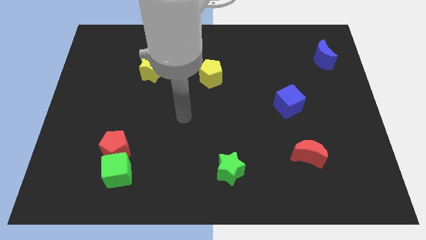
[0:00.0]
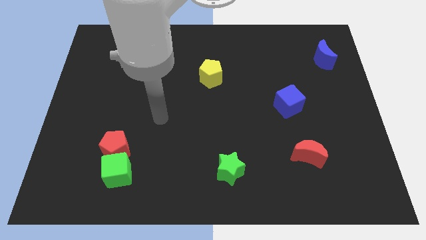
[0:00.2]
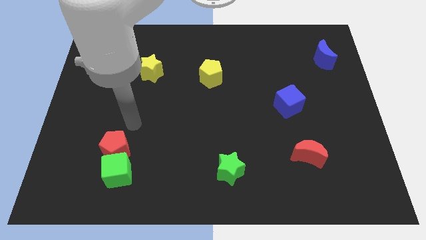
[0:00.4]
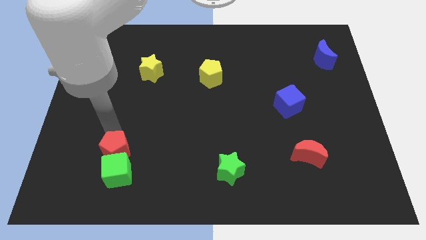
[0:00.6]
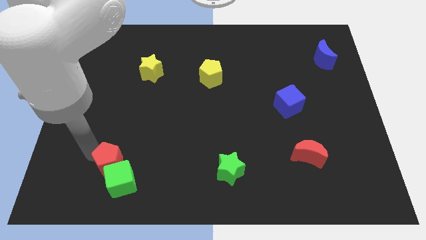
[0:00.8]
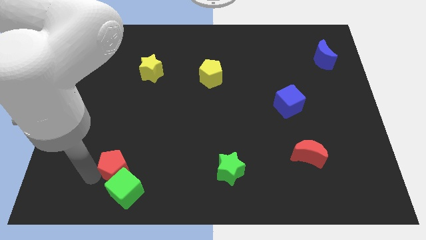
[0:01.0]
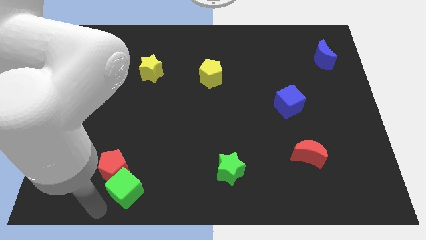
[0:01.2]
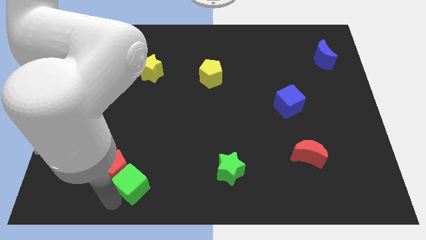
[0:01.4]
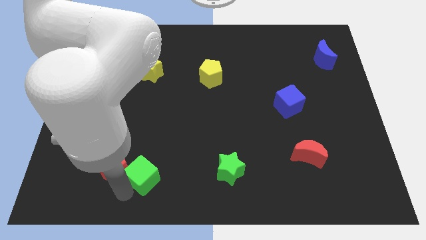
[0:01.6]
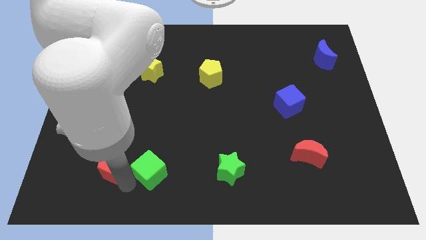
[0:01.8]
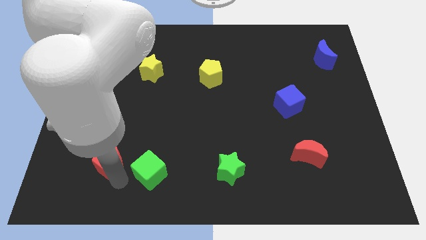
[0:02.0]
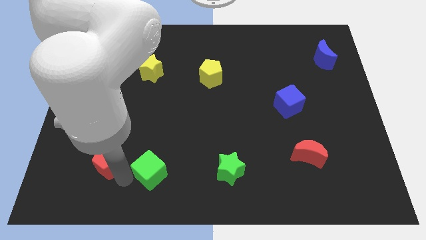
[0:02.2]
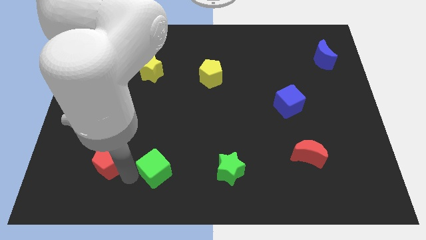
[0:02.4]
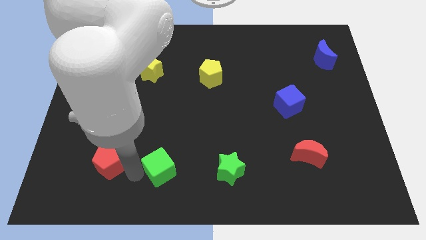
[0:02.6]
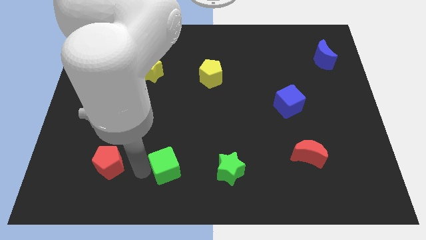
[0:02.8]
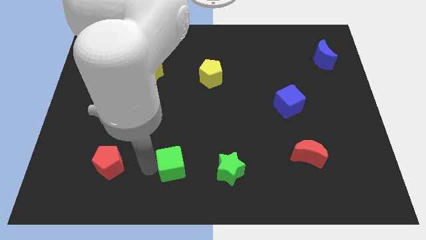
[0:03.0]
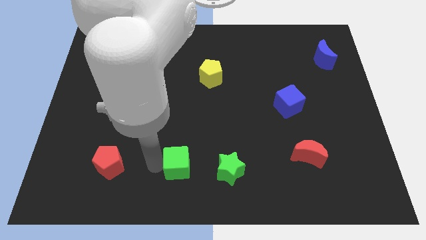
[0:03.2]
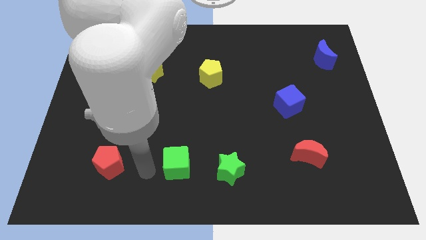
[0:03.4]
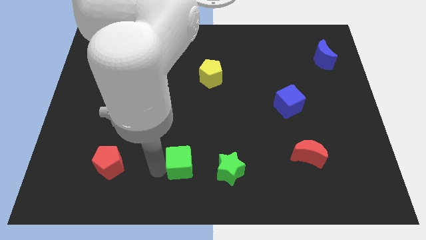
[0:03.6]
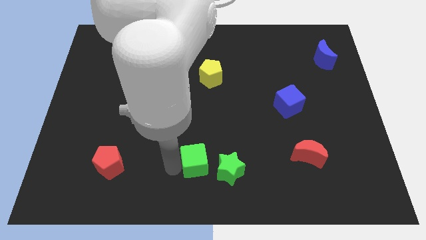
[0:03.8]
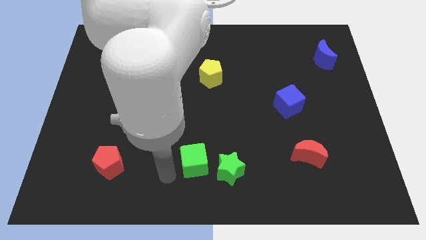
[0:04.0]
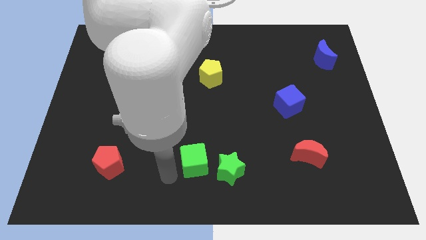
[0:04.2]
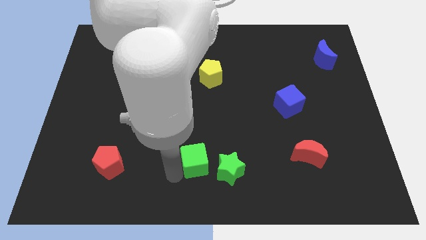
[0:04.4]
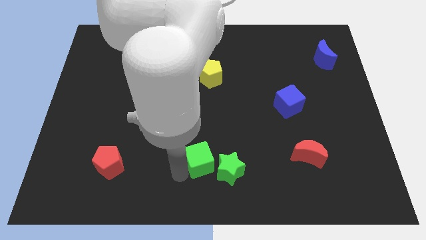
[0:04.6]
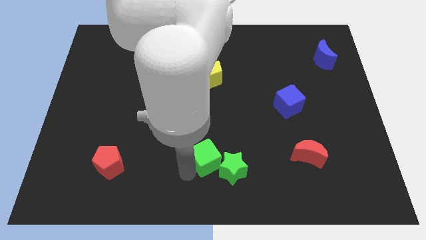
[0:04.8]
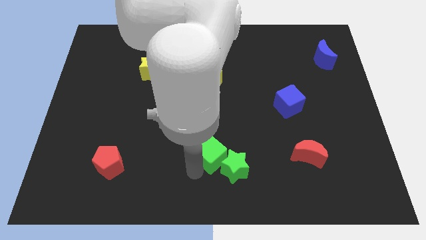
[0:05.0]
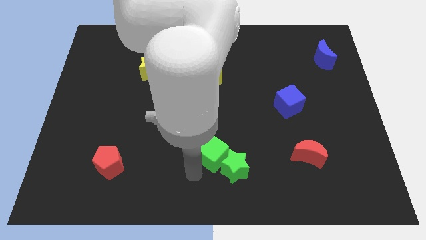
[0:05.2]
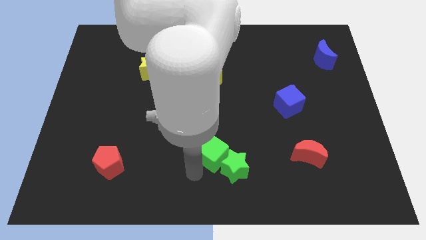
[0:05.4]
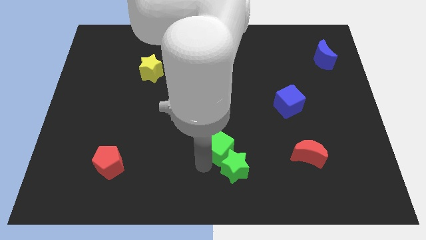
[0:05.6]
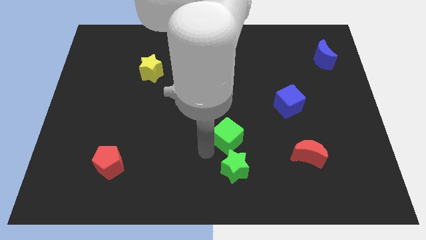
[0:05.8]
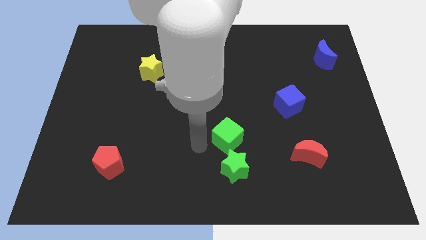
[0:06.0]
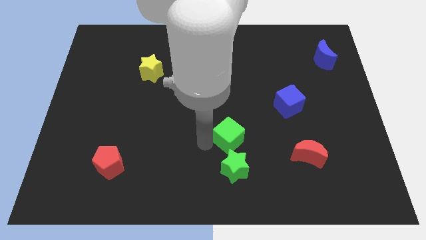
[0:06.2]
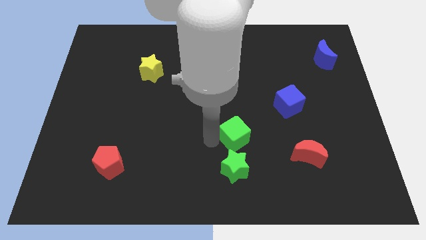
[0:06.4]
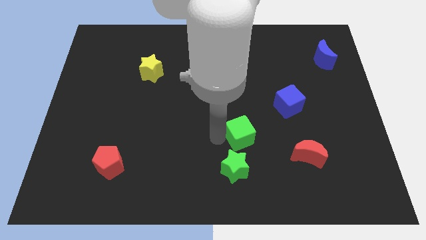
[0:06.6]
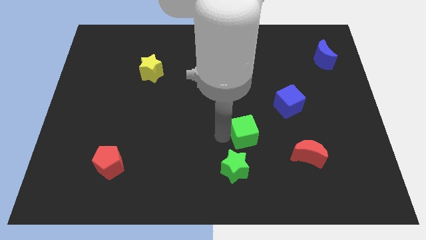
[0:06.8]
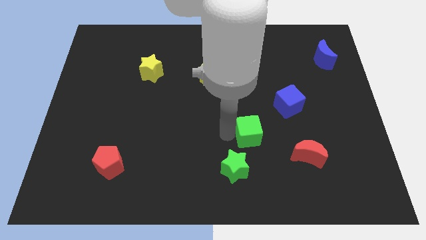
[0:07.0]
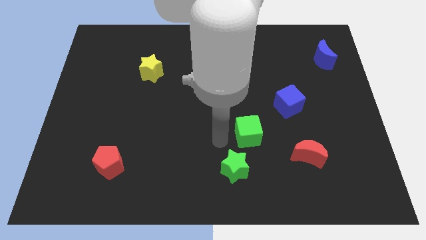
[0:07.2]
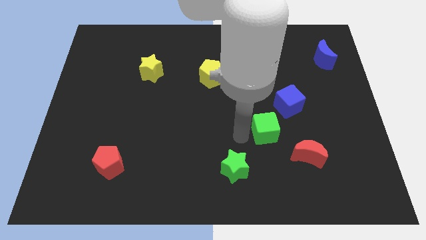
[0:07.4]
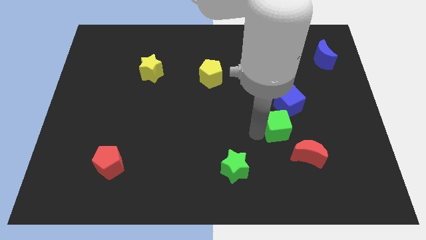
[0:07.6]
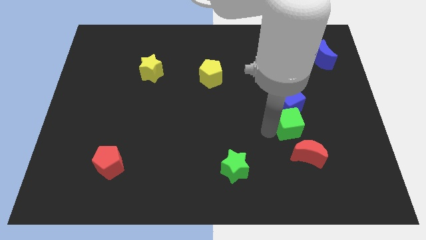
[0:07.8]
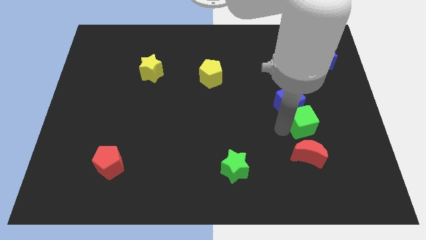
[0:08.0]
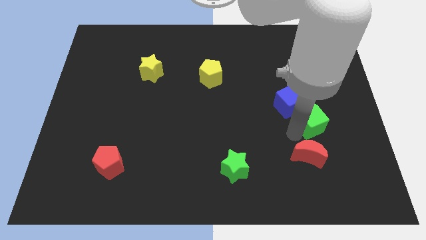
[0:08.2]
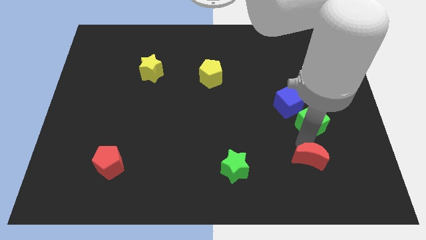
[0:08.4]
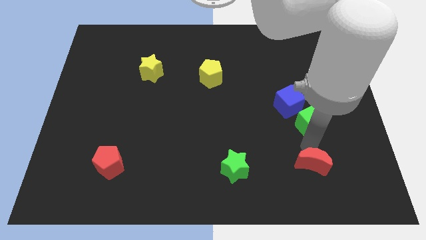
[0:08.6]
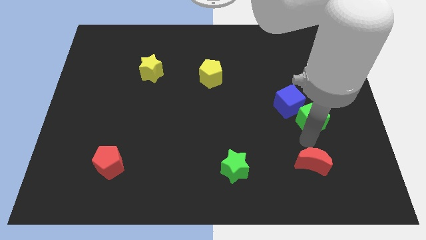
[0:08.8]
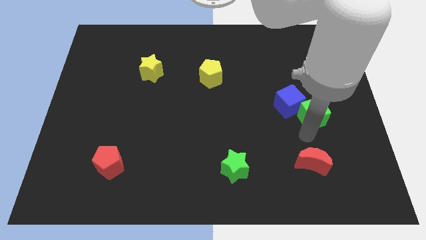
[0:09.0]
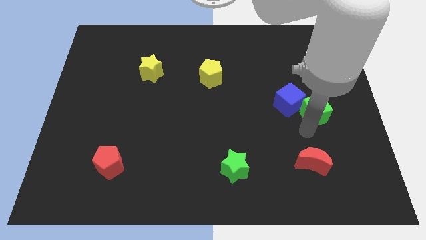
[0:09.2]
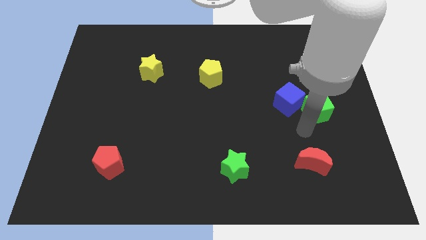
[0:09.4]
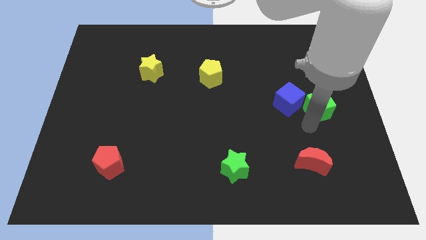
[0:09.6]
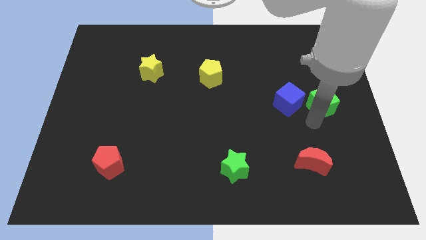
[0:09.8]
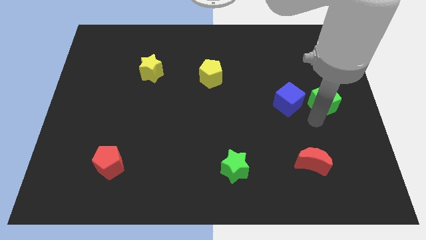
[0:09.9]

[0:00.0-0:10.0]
move the green cube below the blue moon

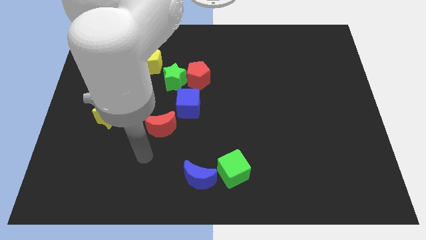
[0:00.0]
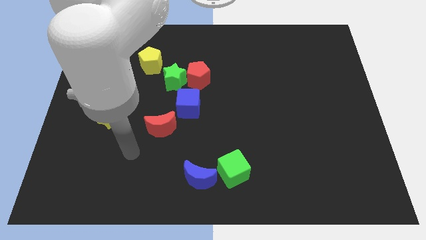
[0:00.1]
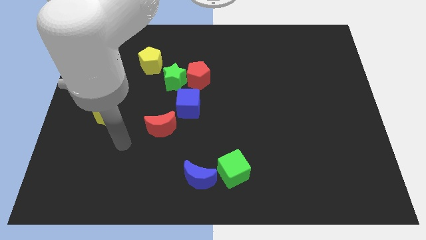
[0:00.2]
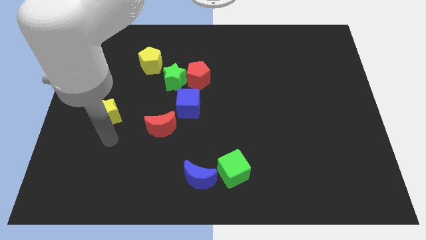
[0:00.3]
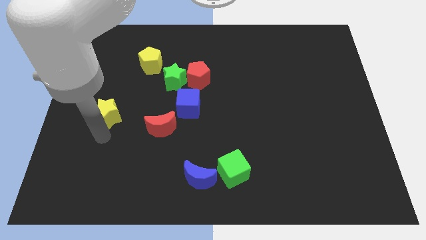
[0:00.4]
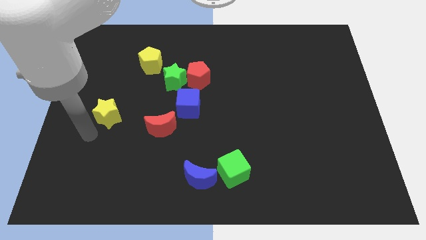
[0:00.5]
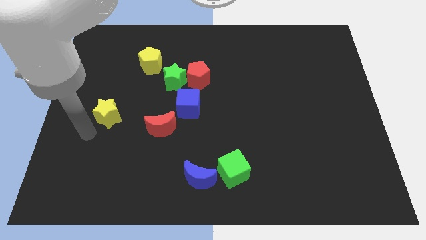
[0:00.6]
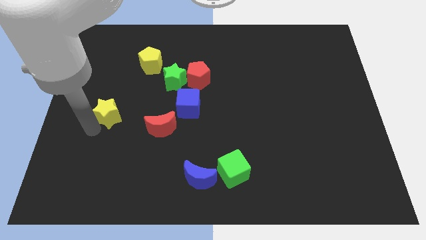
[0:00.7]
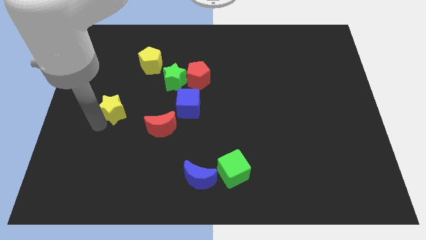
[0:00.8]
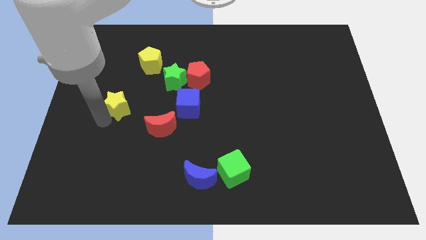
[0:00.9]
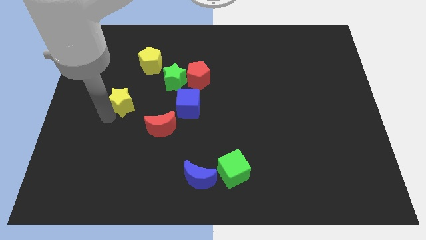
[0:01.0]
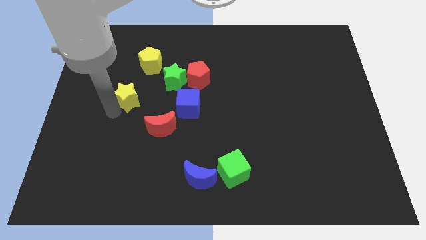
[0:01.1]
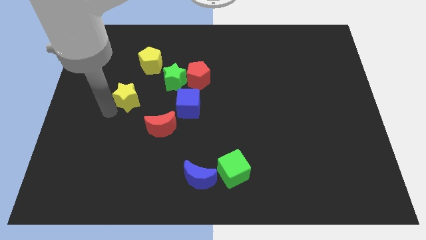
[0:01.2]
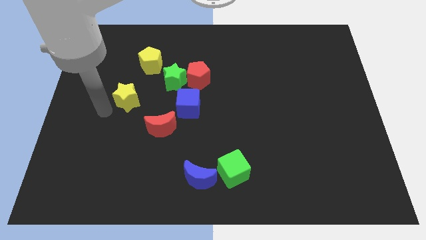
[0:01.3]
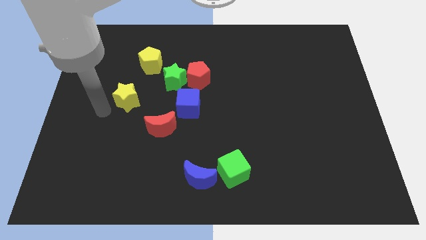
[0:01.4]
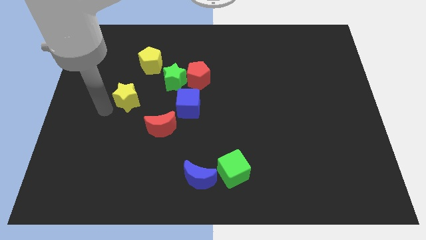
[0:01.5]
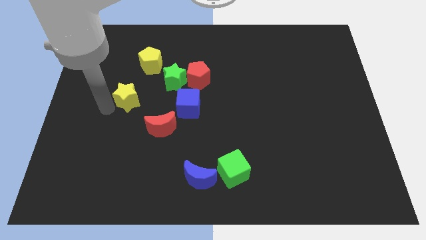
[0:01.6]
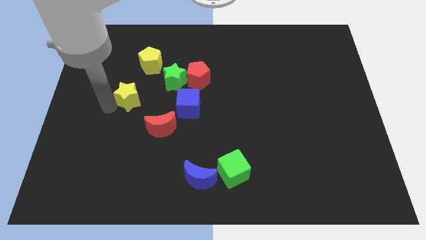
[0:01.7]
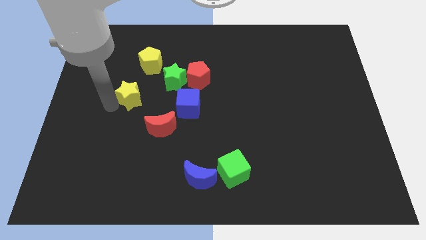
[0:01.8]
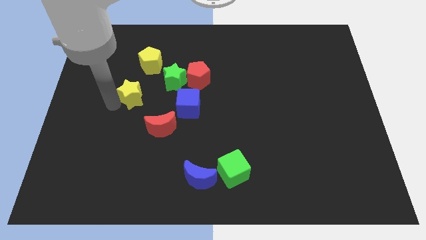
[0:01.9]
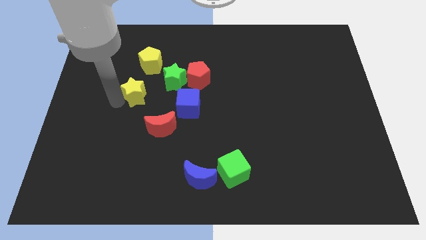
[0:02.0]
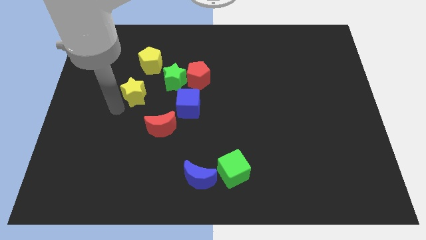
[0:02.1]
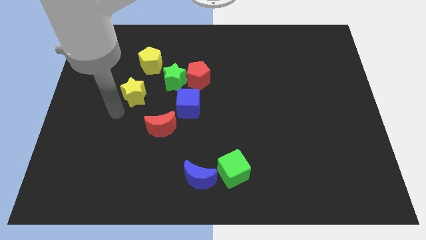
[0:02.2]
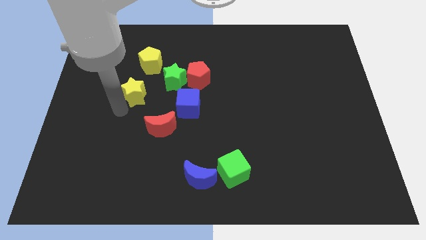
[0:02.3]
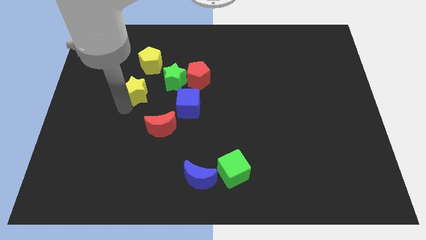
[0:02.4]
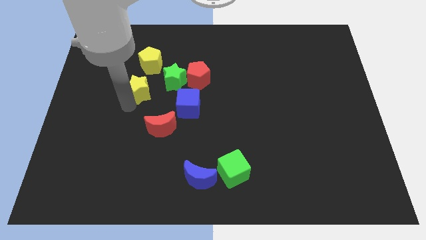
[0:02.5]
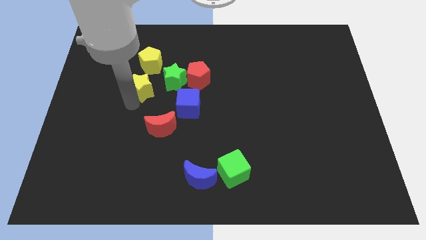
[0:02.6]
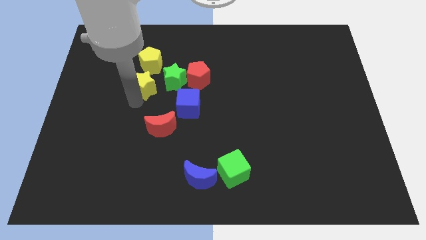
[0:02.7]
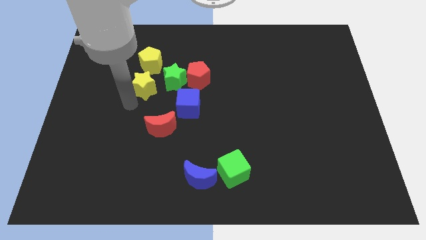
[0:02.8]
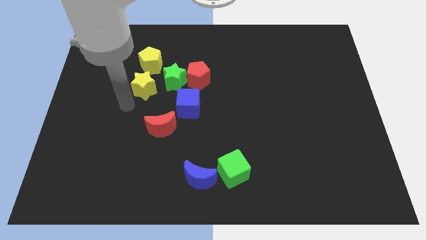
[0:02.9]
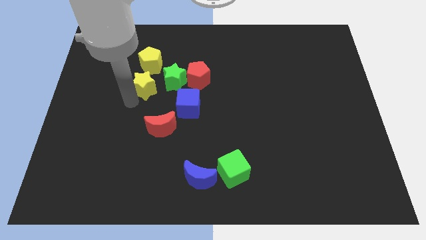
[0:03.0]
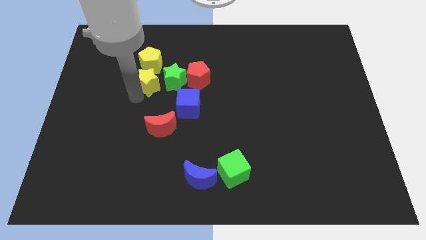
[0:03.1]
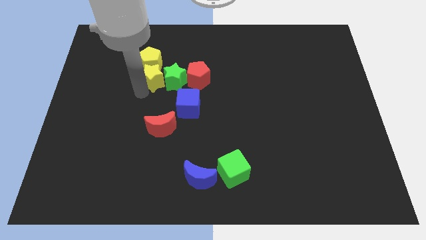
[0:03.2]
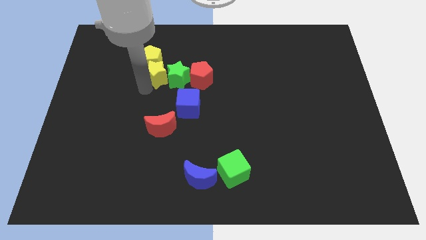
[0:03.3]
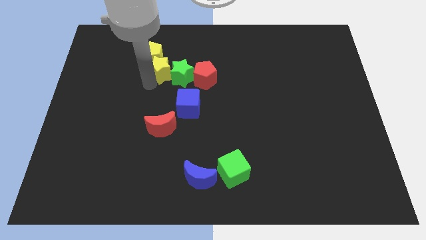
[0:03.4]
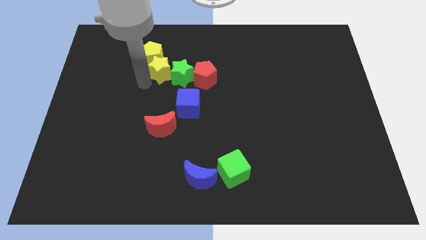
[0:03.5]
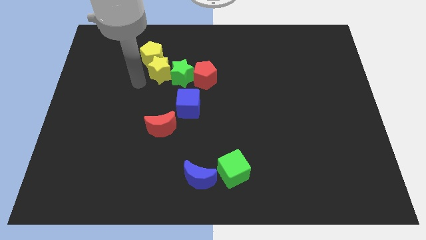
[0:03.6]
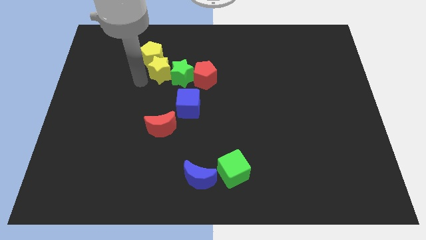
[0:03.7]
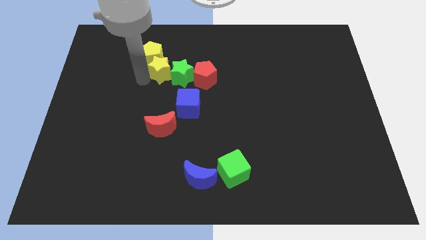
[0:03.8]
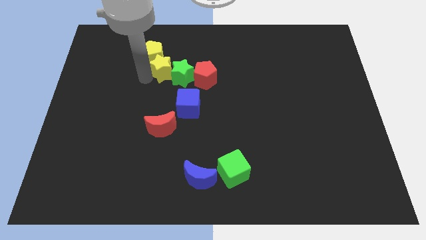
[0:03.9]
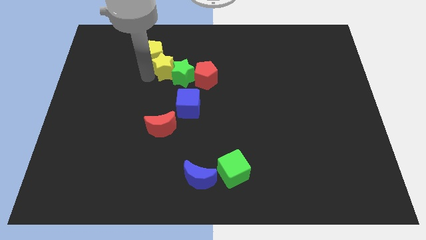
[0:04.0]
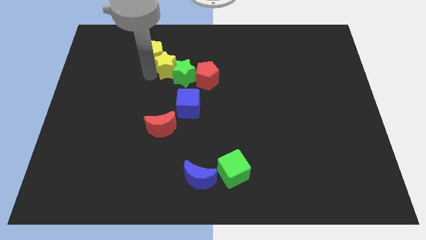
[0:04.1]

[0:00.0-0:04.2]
put the yellow star to the top left of the red pentagon
